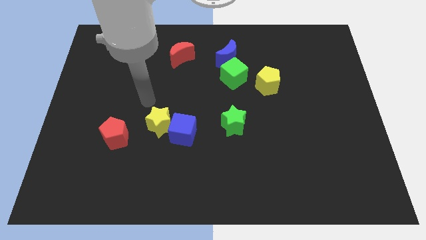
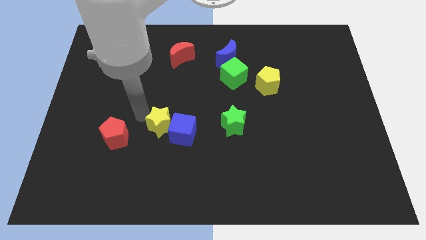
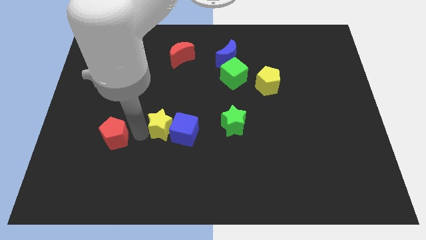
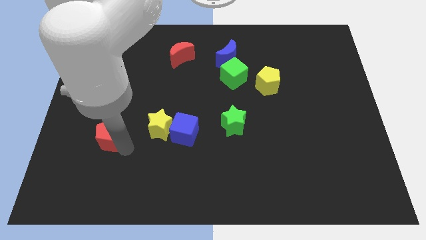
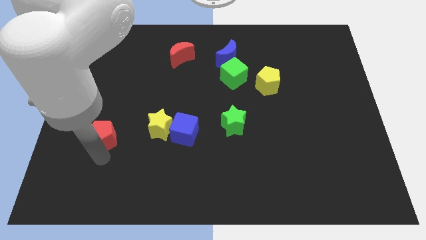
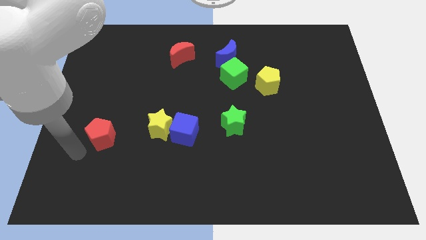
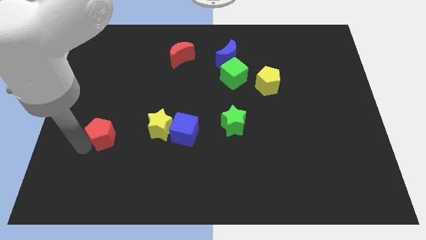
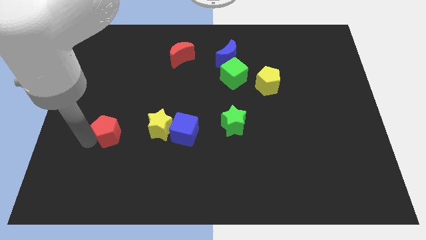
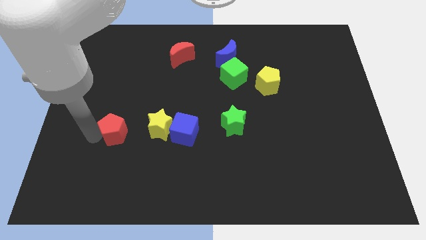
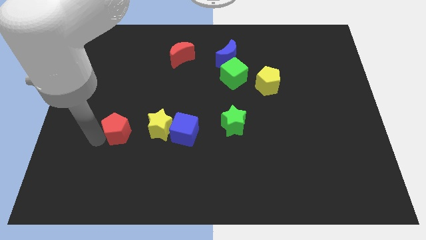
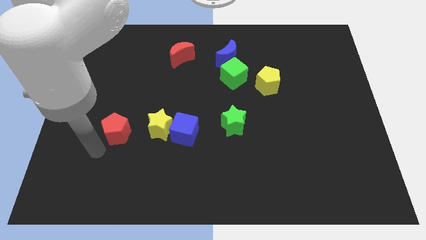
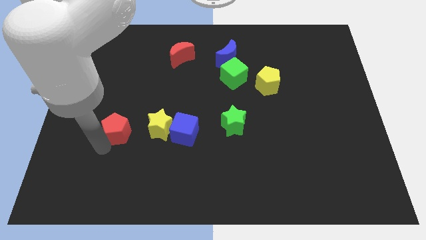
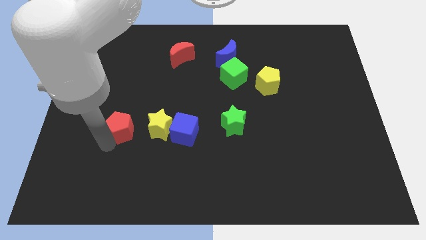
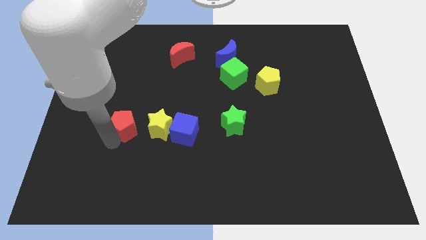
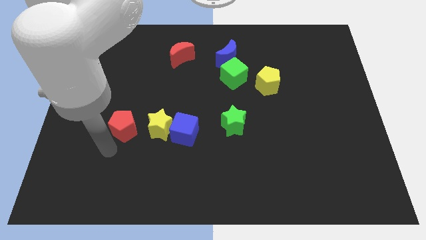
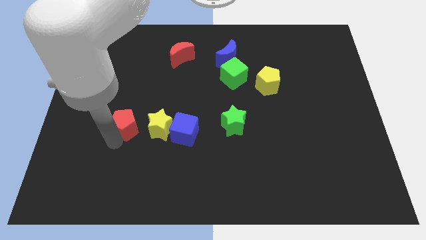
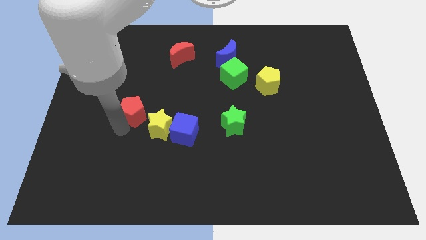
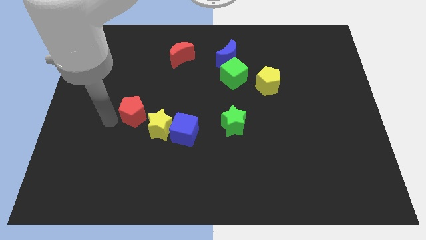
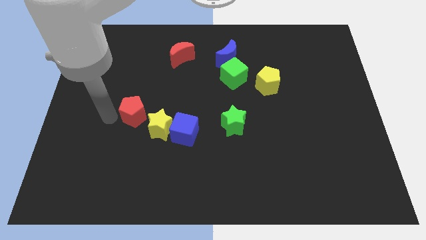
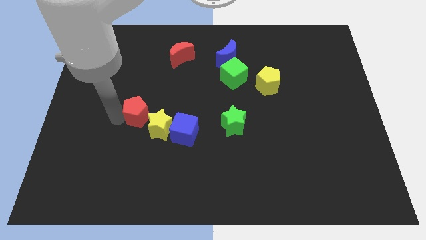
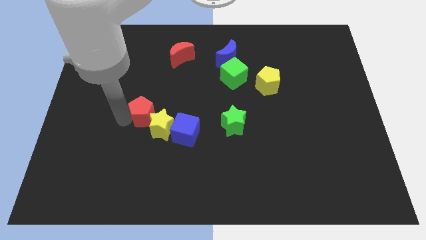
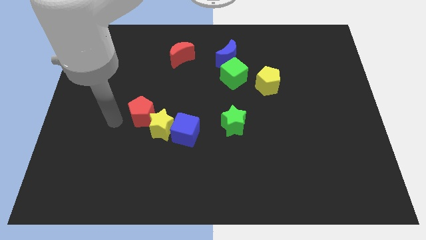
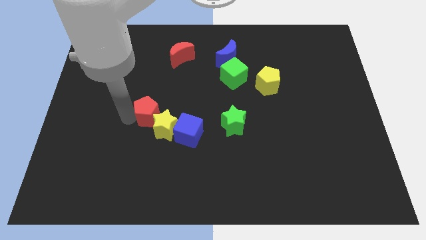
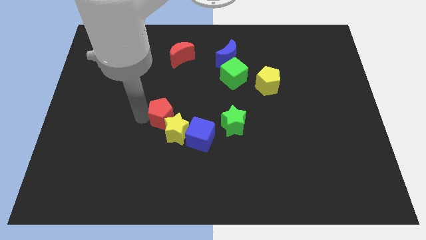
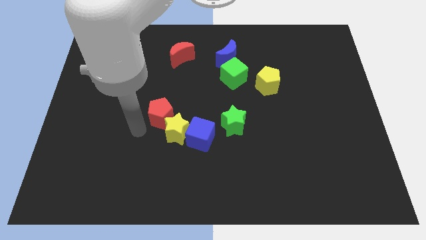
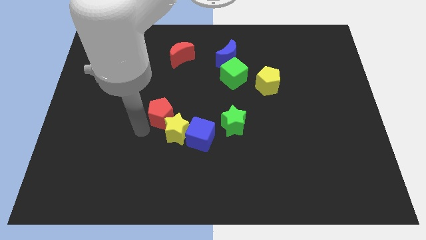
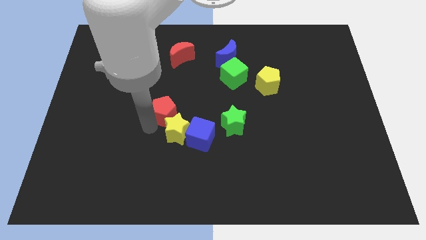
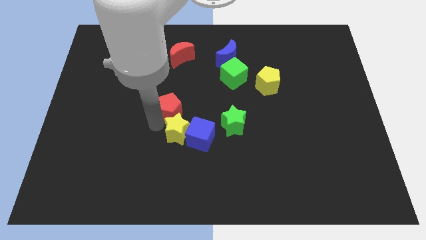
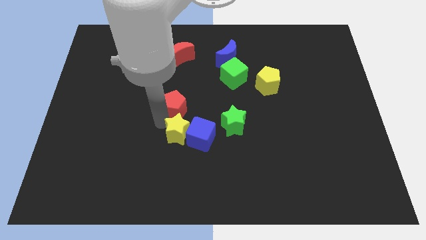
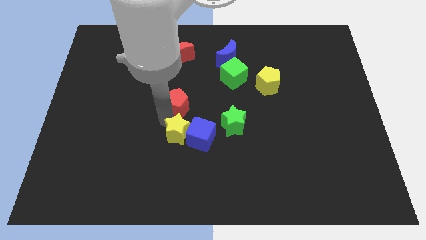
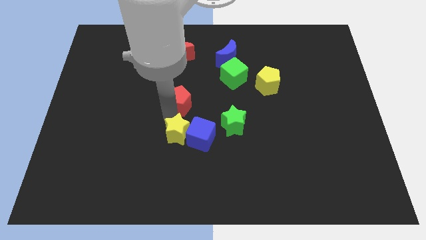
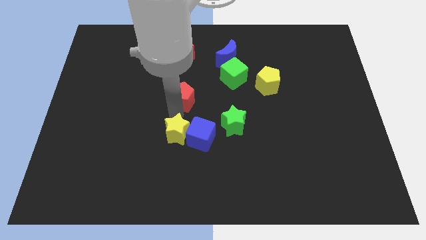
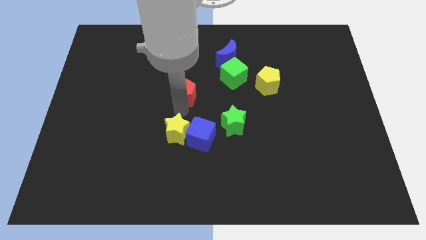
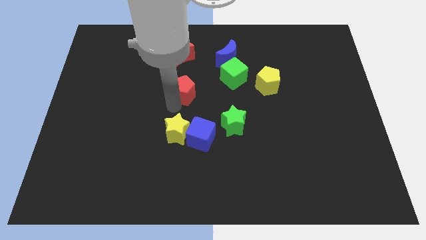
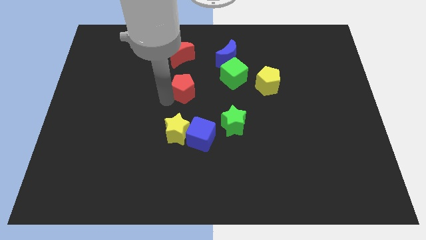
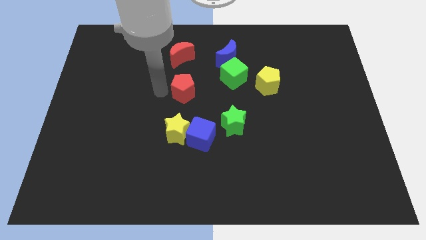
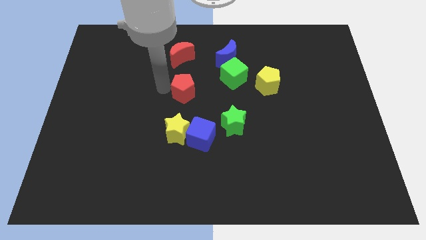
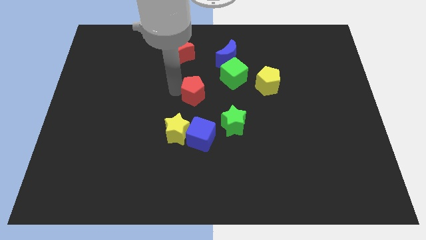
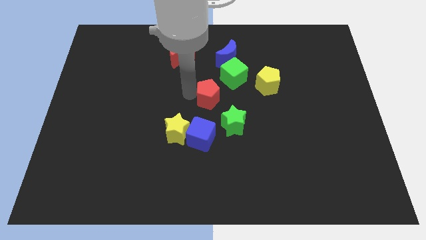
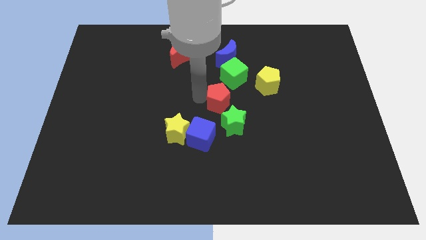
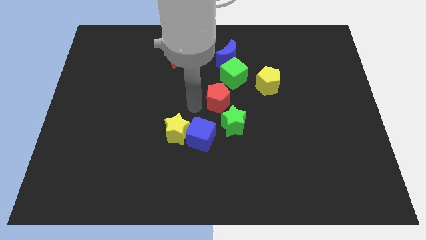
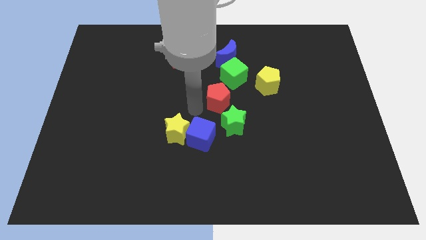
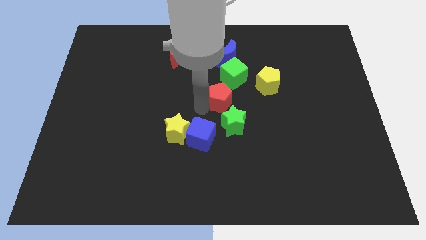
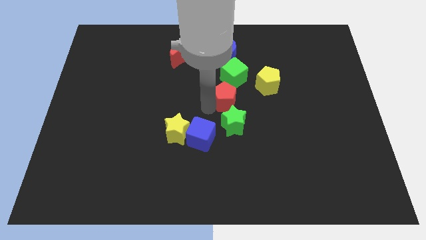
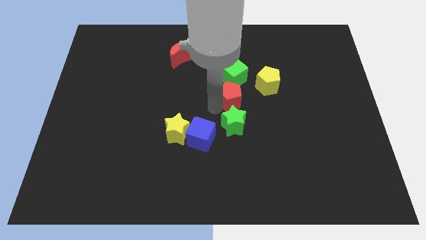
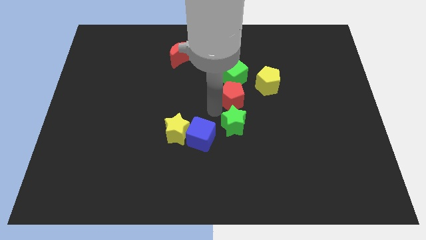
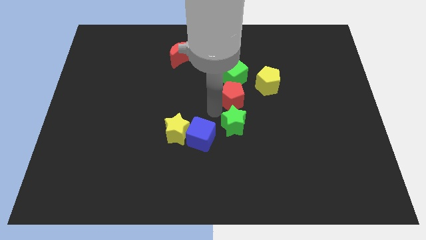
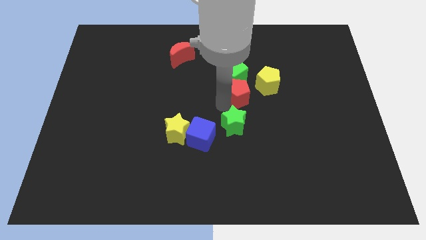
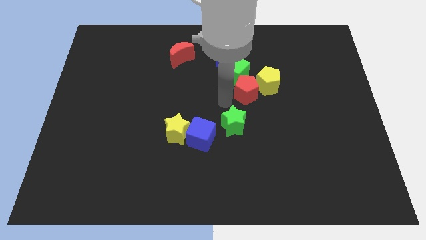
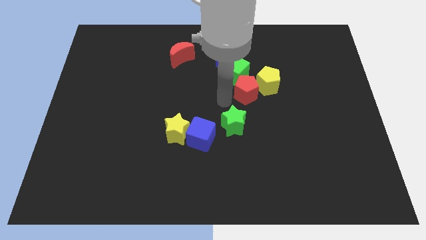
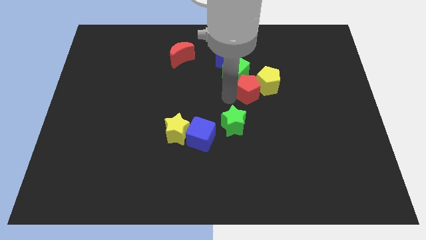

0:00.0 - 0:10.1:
slide the red pentagon to the yellow pentagon

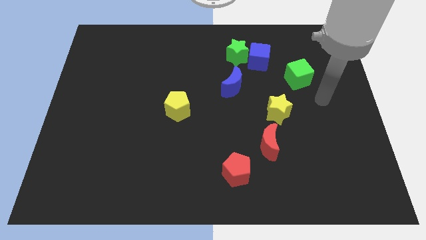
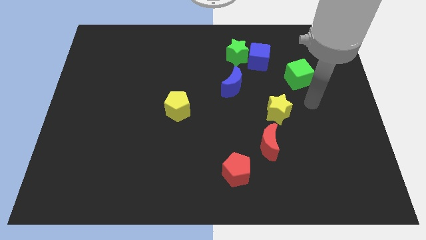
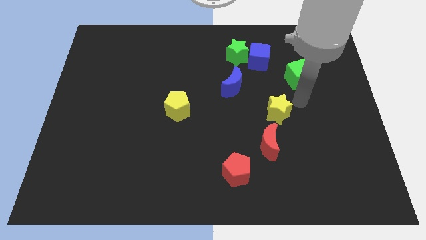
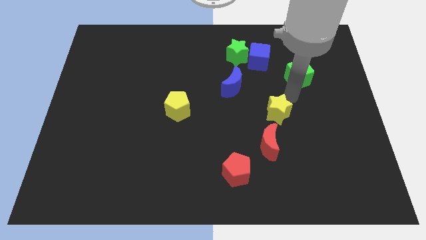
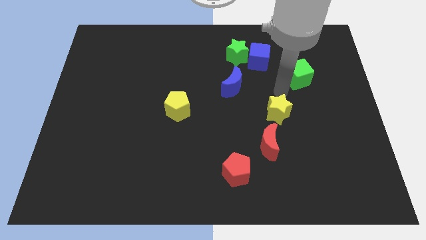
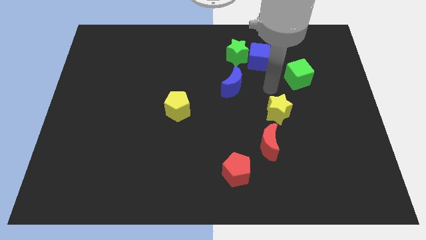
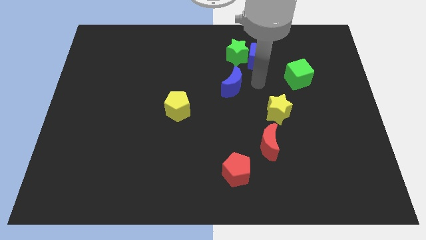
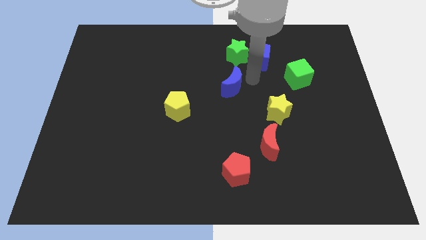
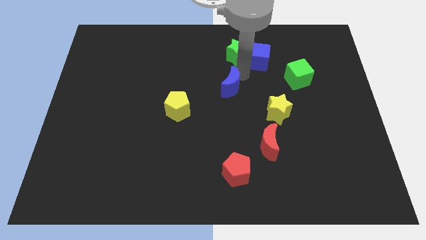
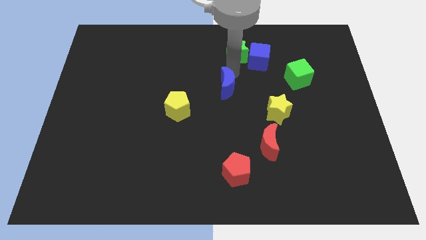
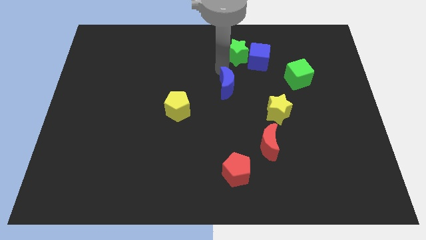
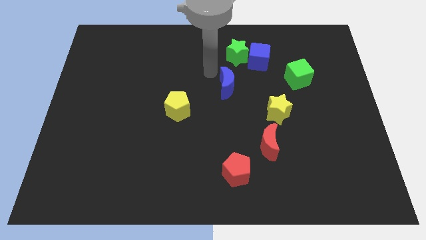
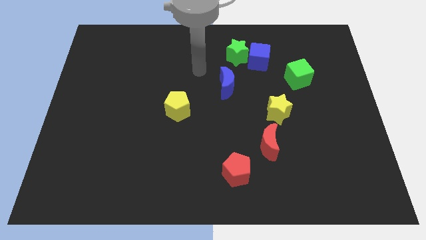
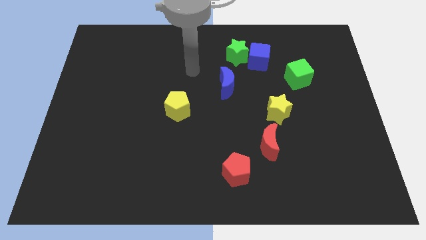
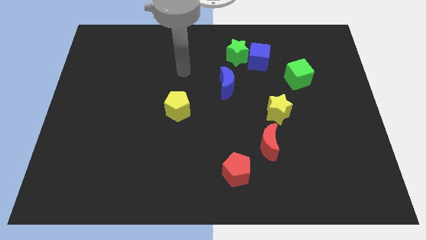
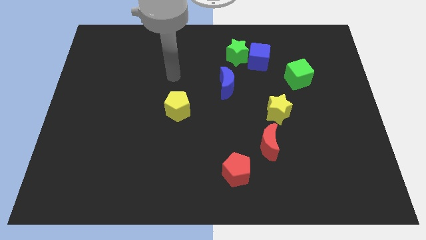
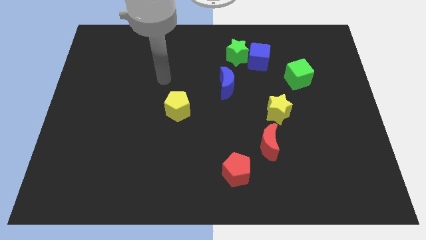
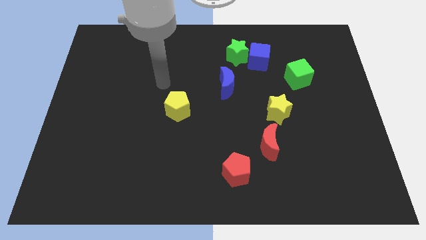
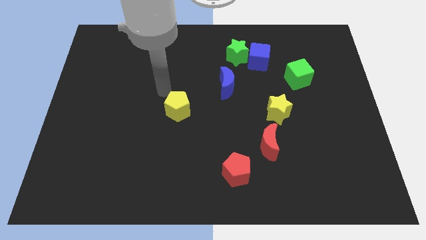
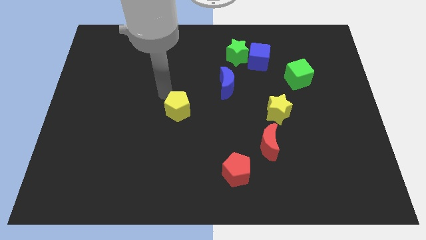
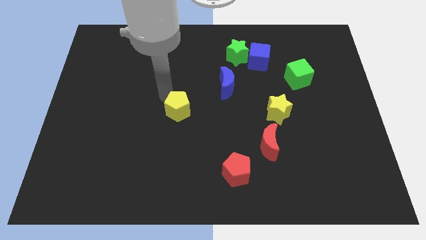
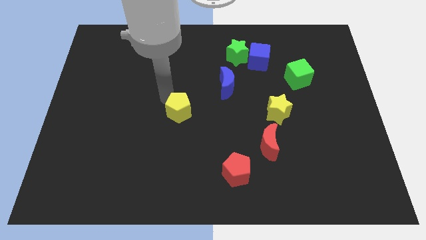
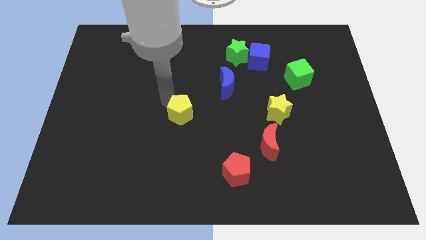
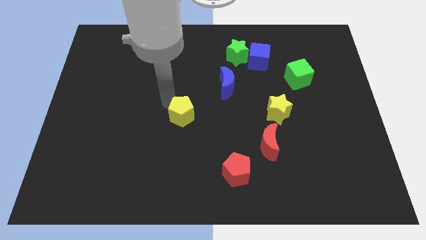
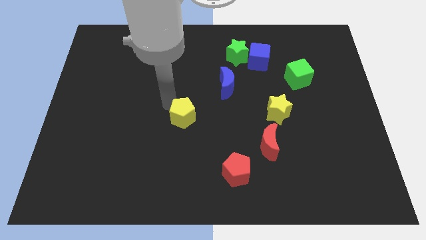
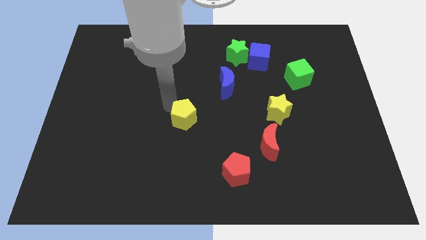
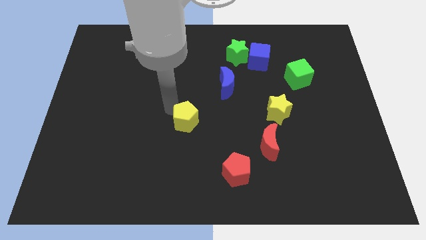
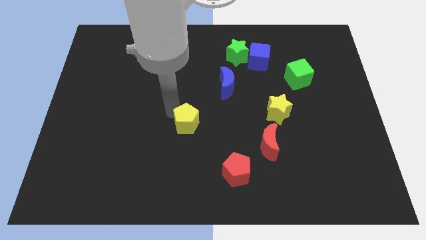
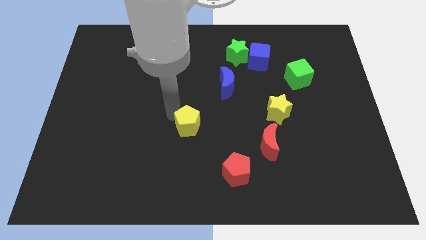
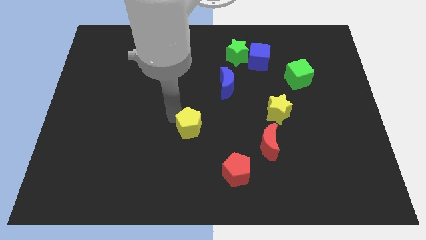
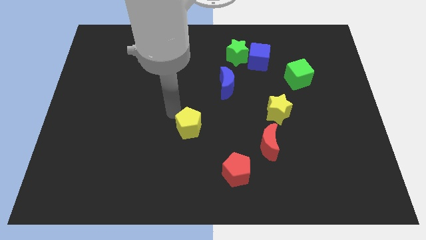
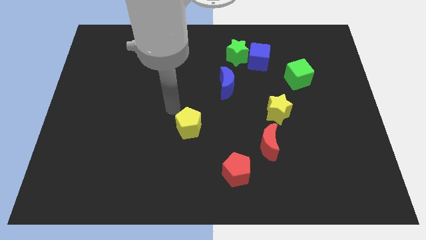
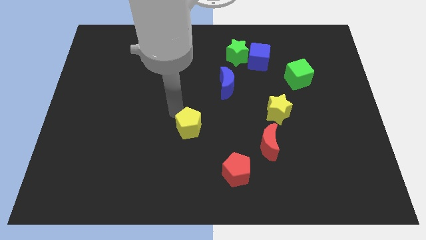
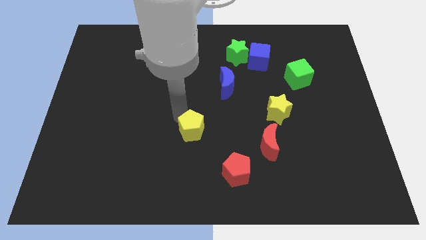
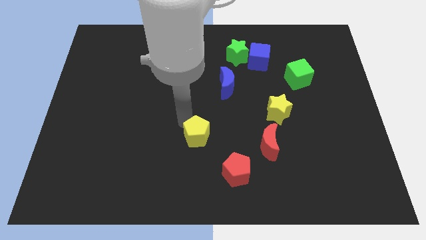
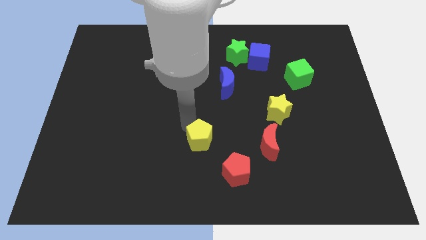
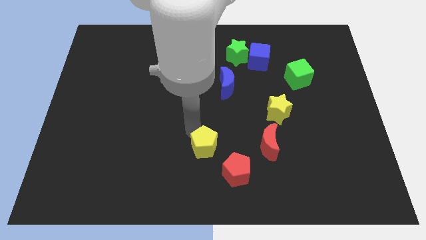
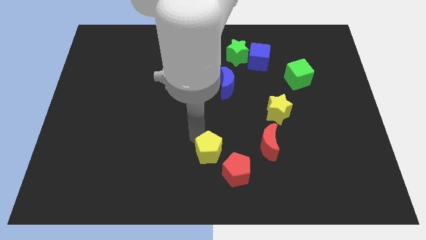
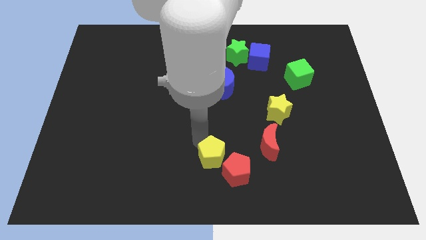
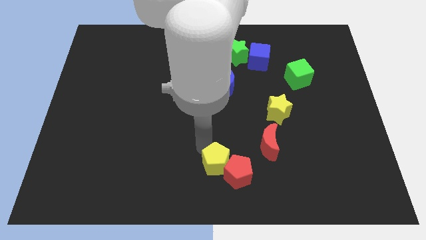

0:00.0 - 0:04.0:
move the yellow pentagon to the red pentagon
